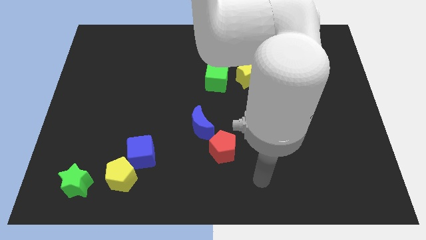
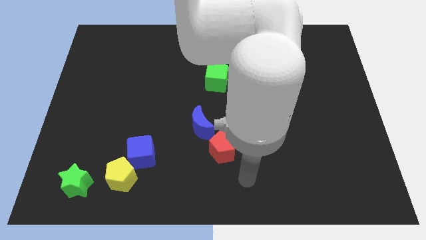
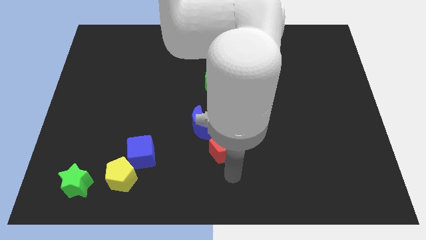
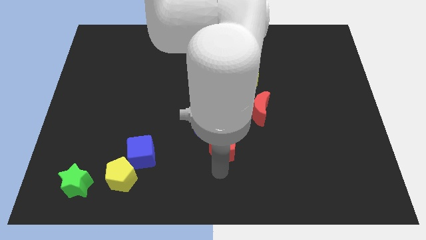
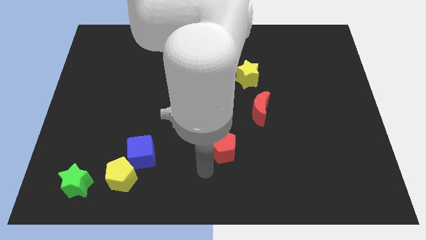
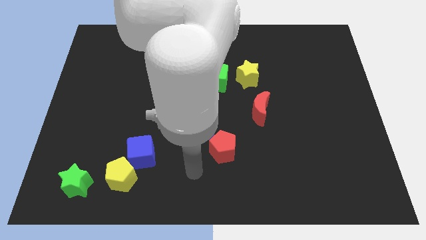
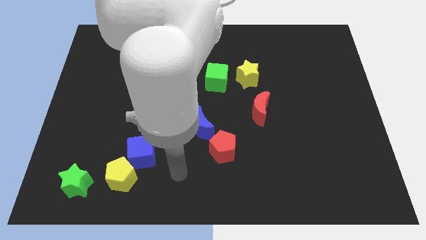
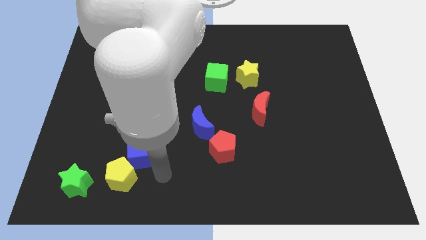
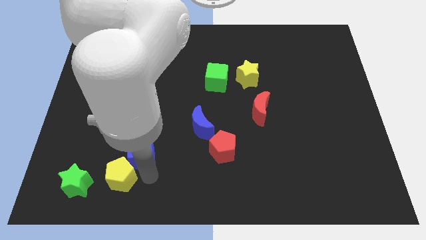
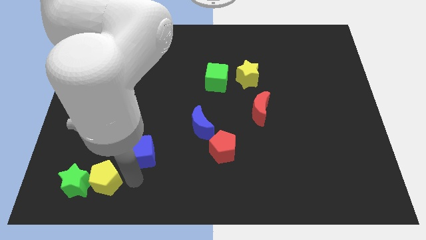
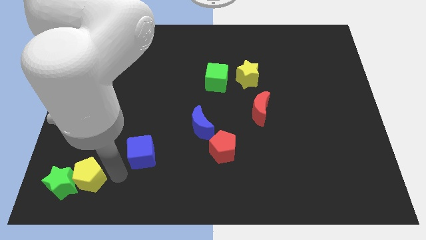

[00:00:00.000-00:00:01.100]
move the blue cube away from the yellow pentagon

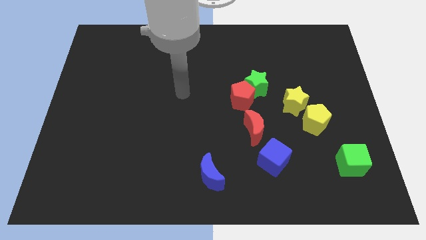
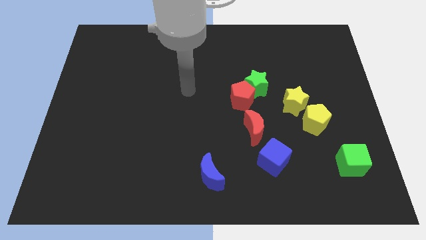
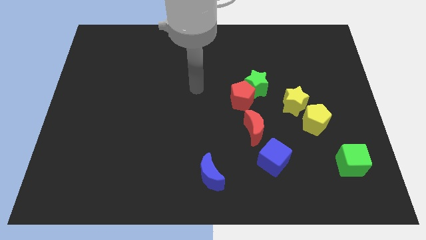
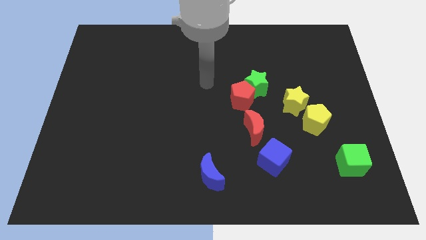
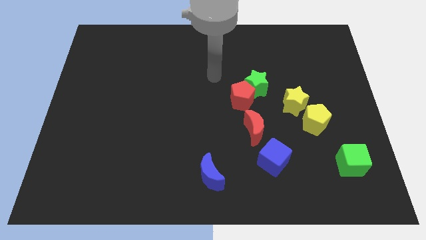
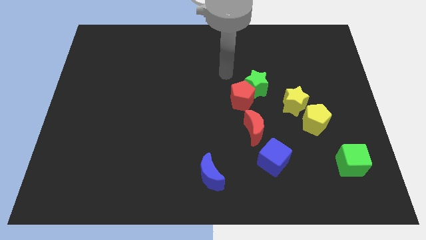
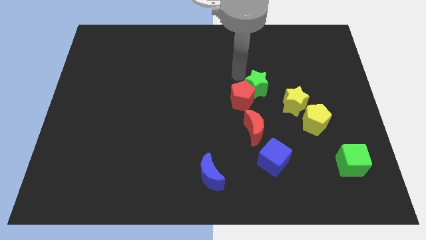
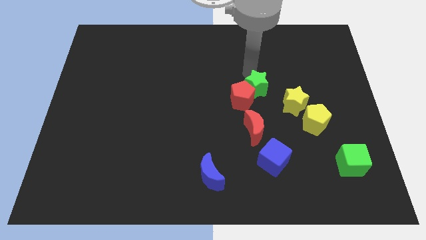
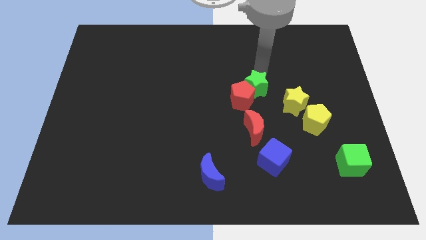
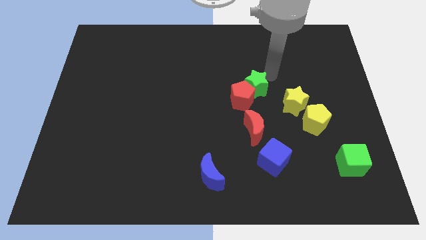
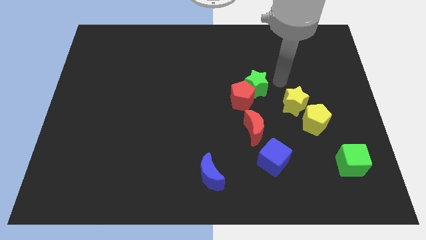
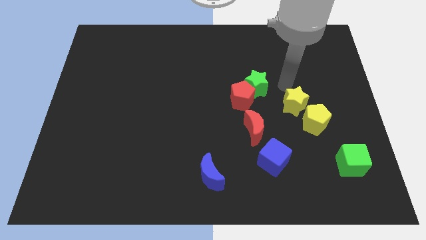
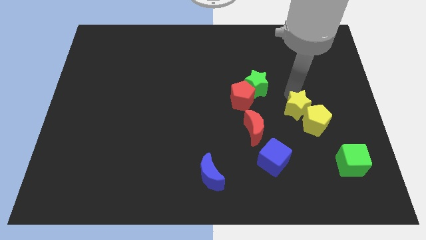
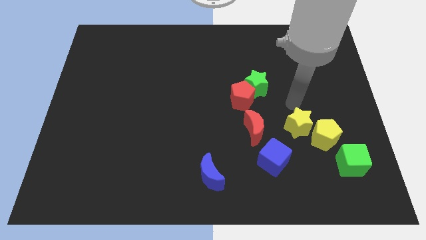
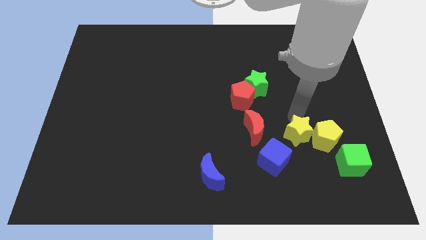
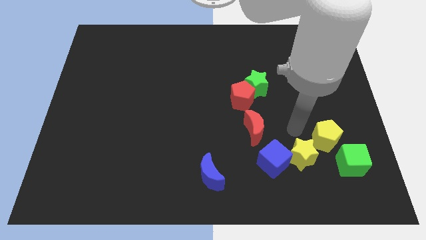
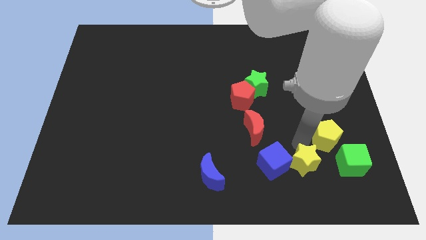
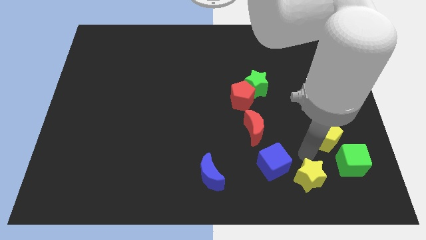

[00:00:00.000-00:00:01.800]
separate the yellow pentagon from the yellow star

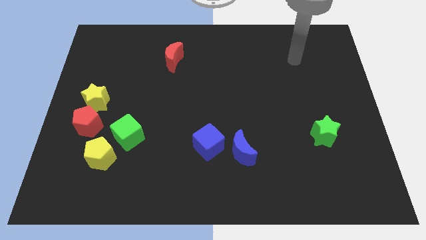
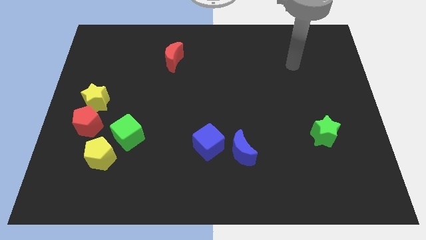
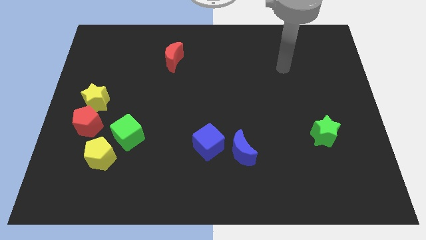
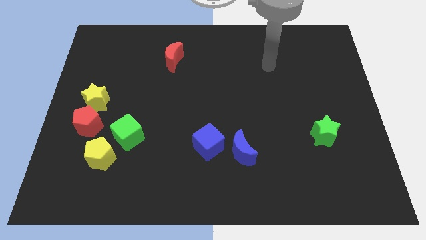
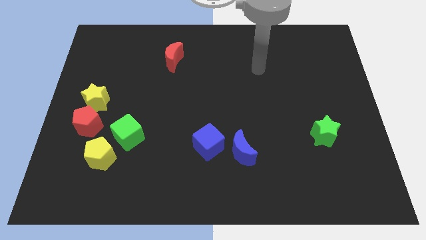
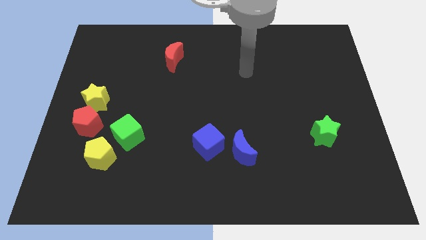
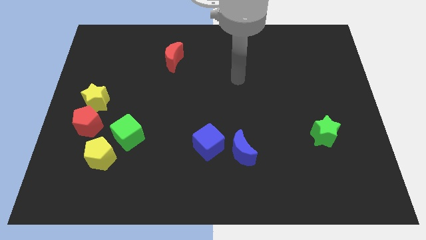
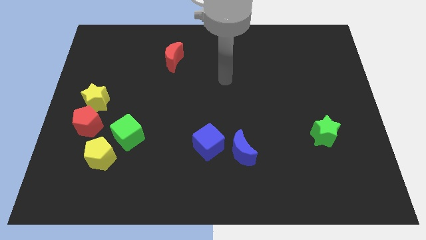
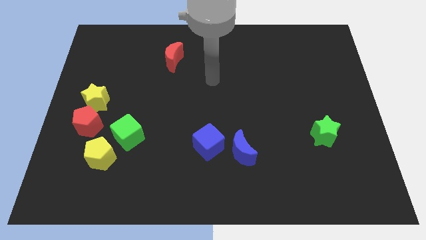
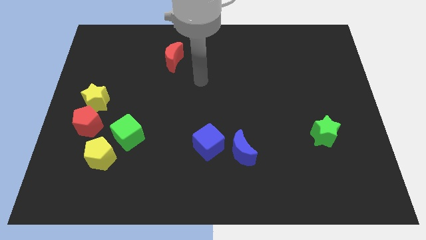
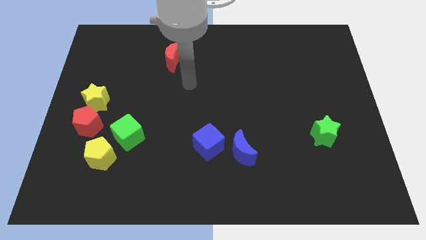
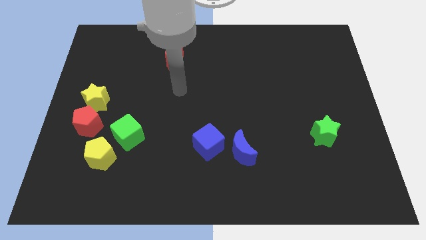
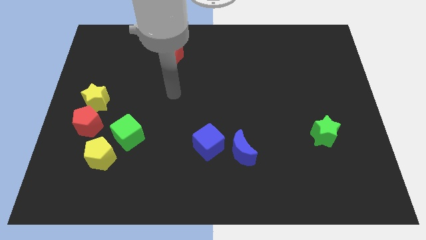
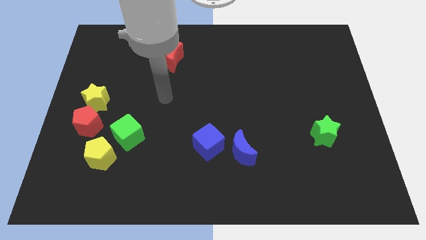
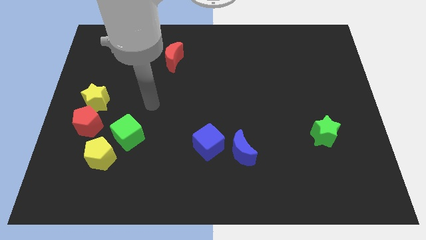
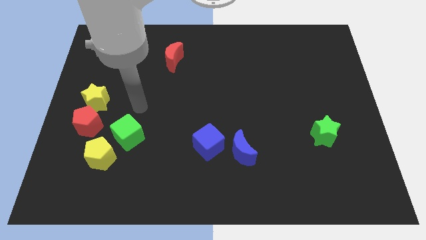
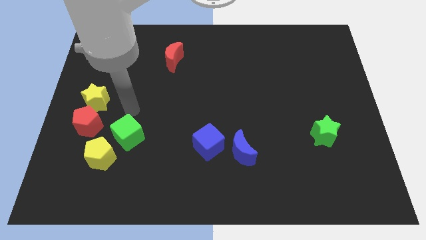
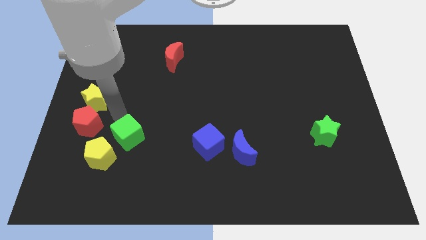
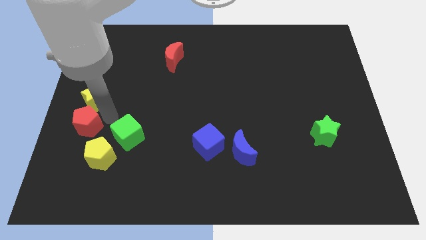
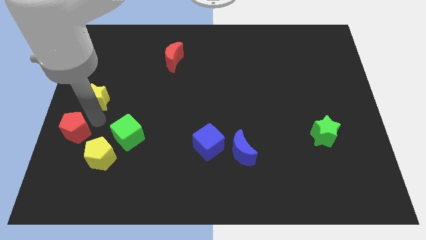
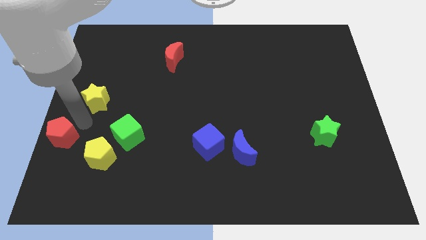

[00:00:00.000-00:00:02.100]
pull the yellow star apart from the red pentagon

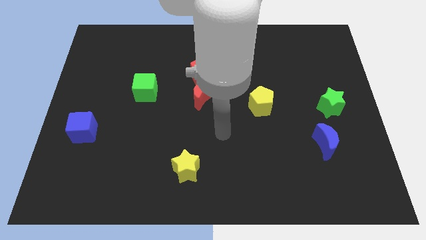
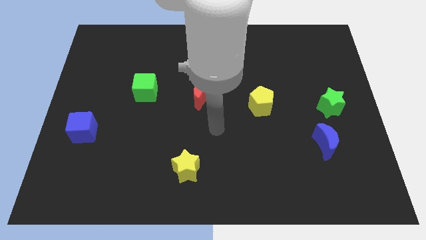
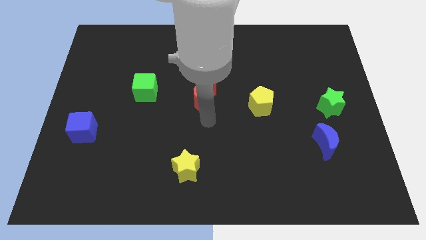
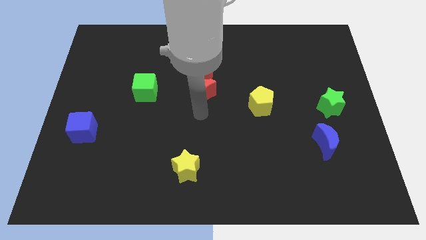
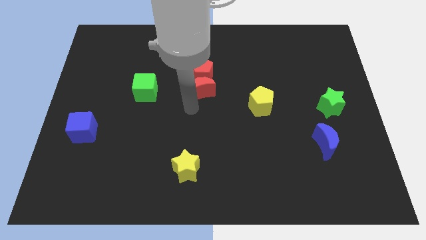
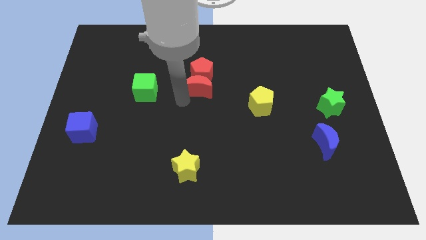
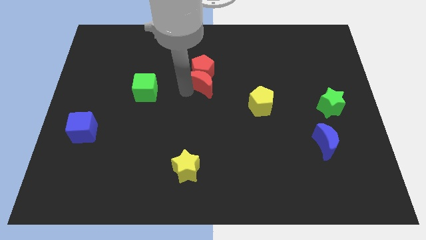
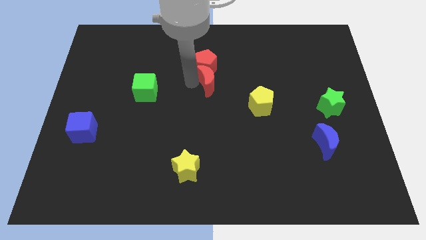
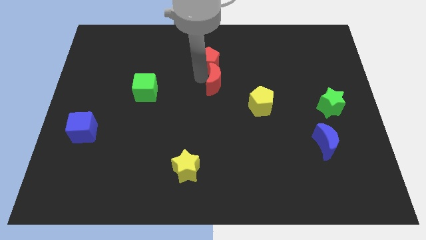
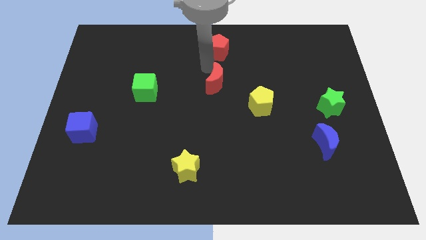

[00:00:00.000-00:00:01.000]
separate the red moon from the red pentagon

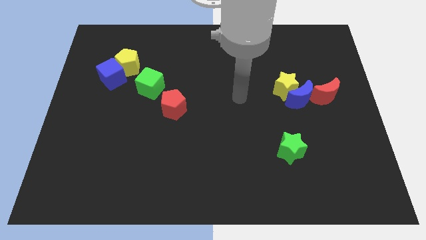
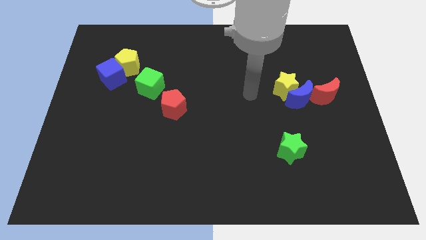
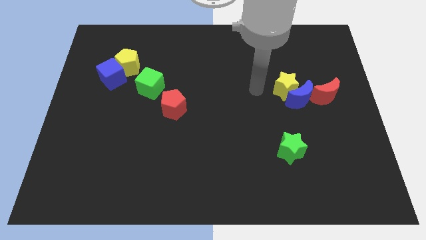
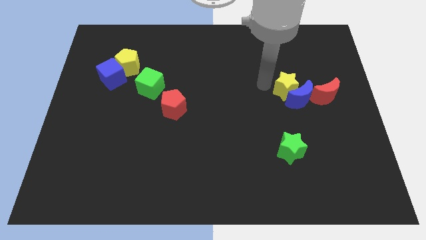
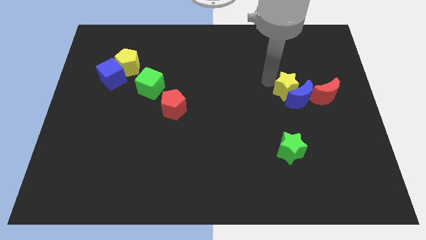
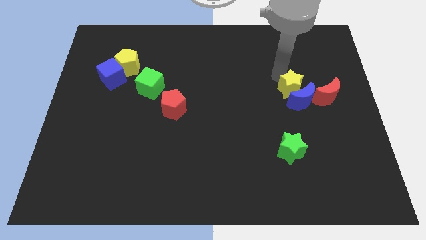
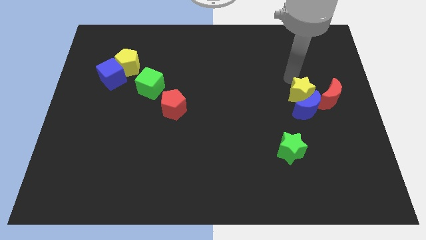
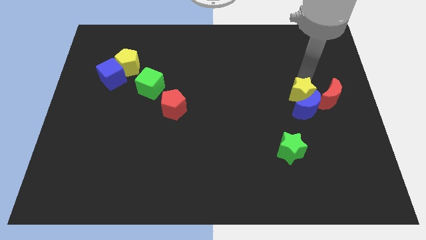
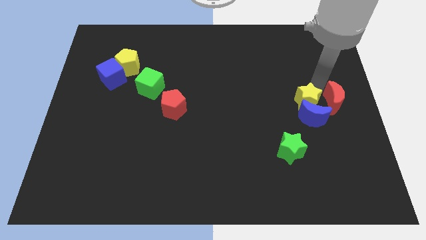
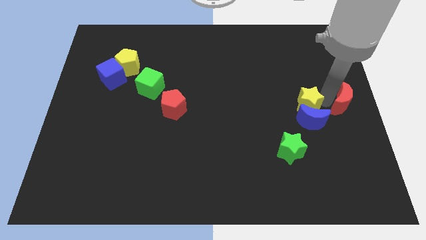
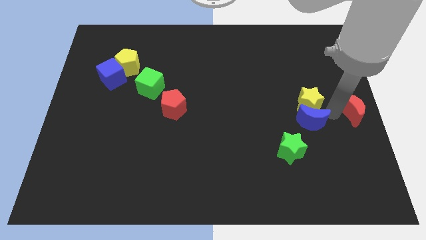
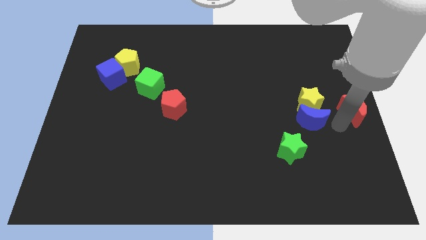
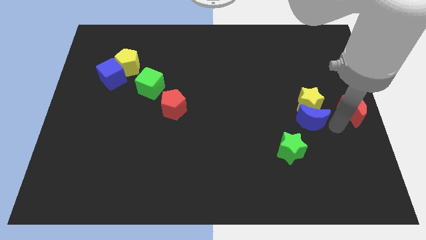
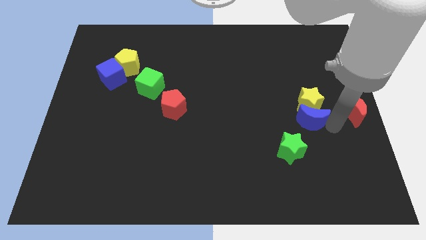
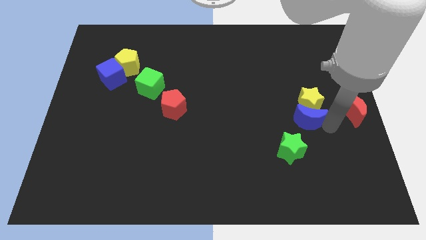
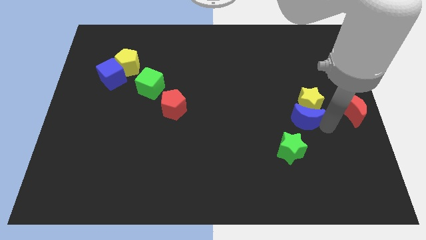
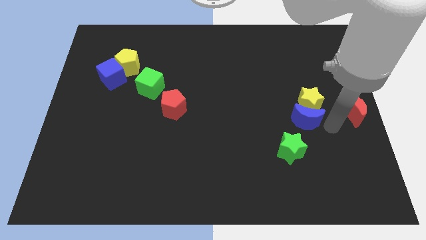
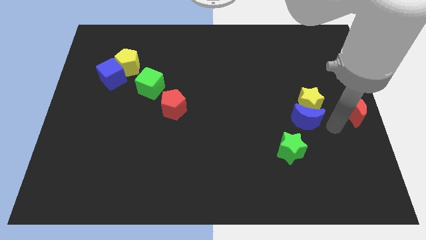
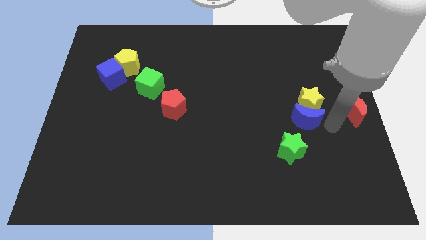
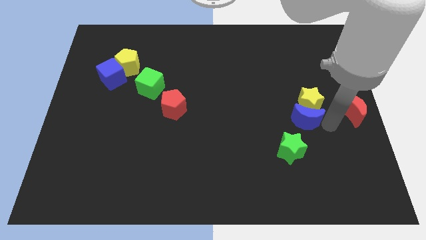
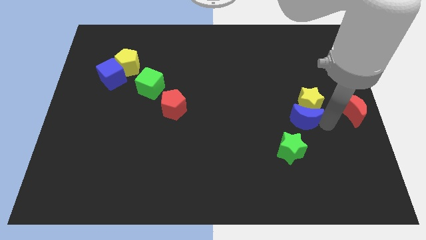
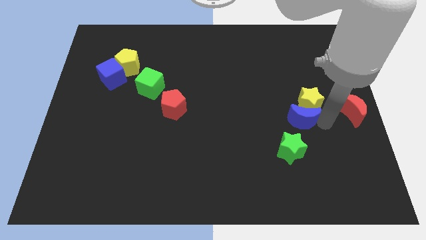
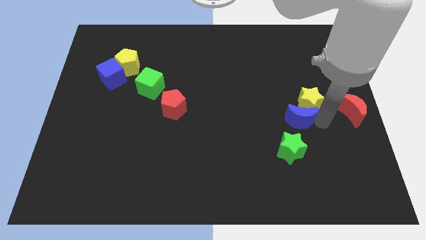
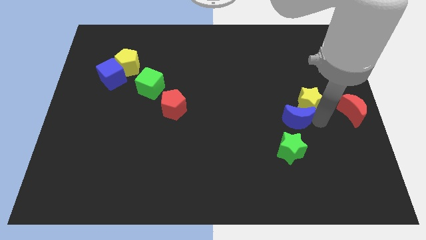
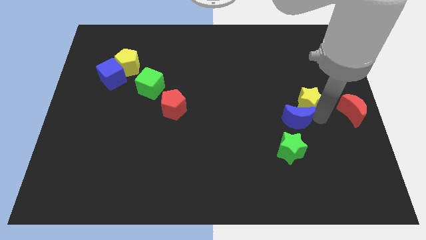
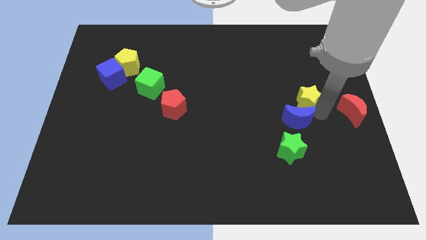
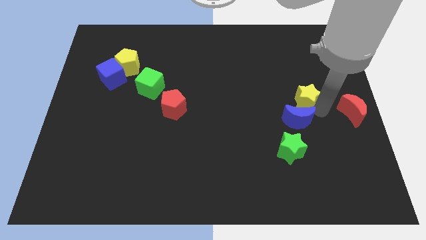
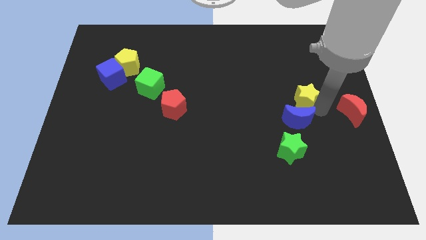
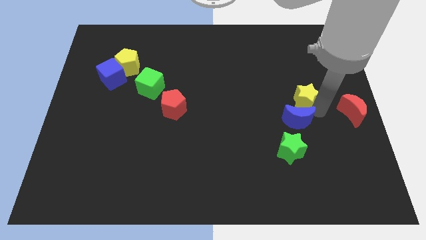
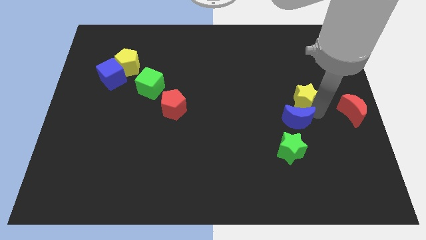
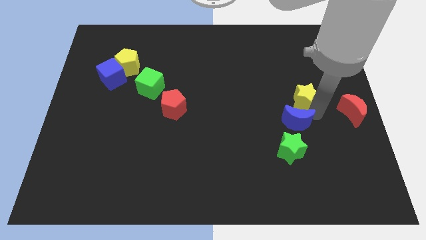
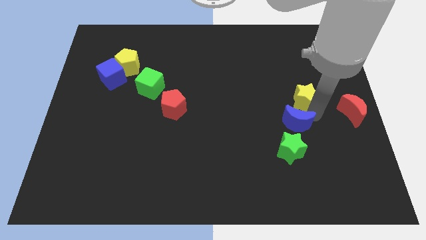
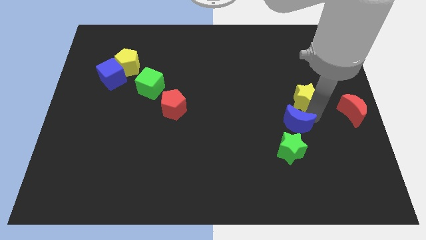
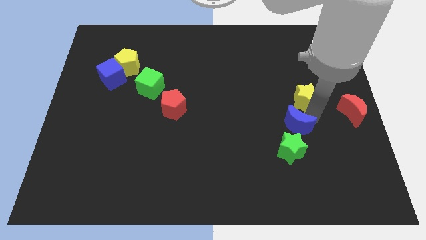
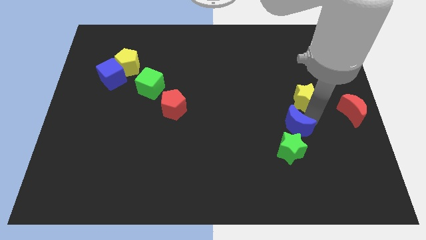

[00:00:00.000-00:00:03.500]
pull the blue moon apart from the yellow star and red moon
